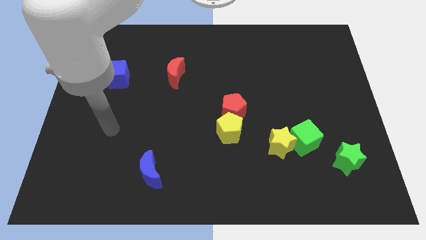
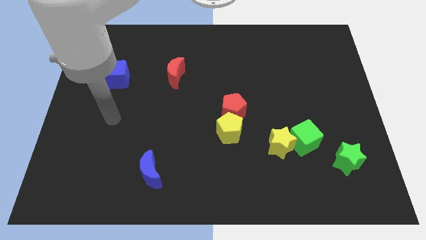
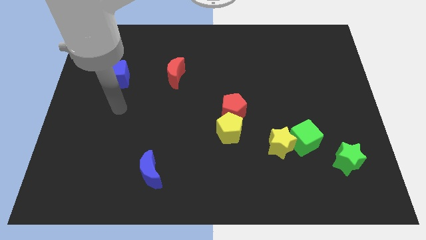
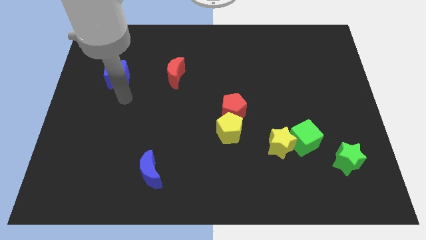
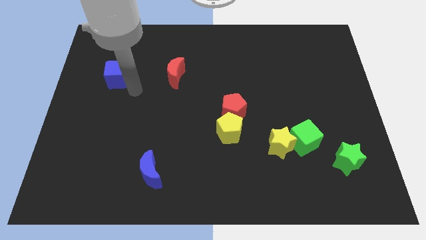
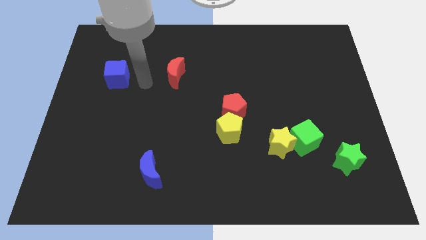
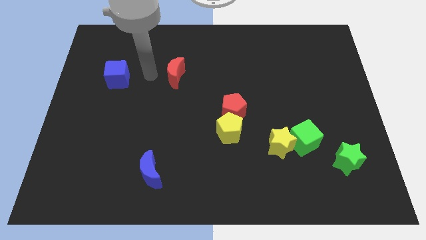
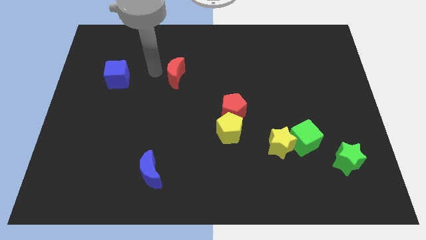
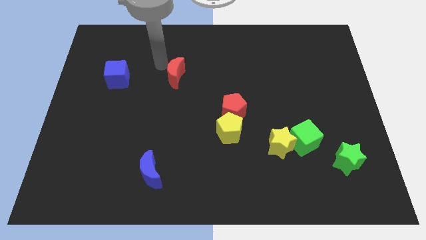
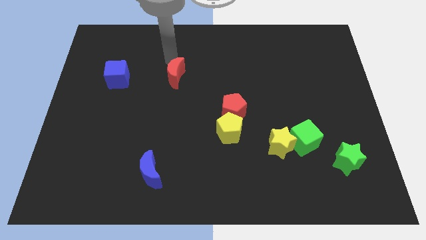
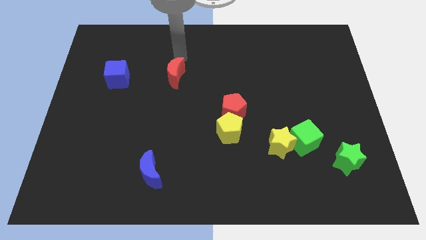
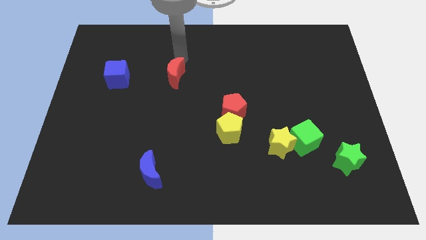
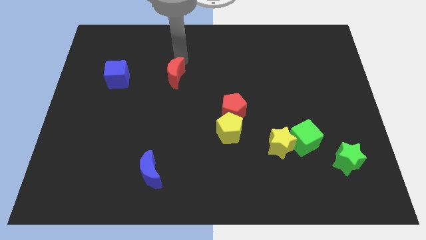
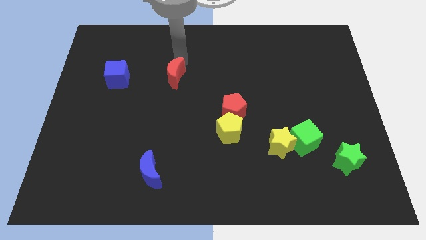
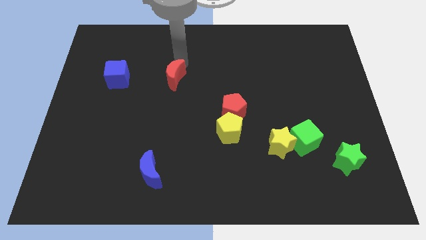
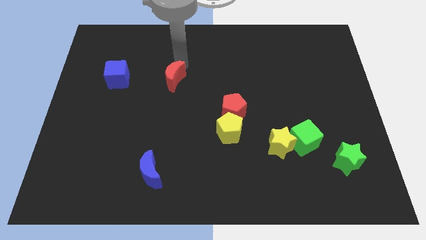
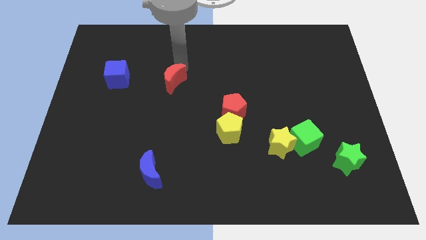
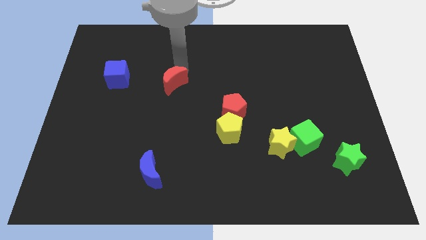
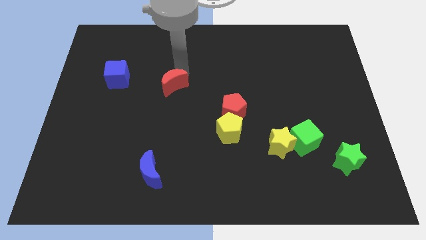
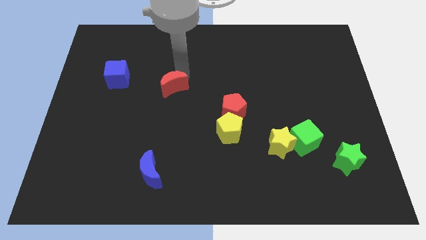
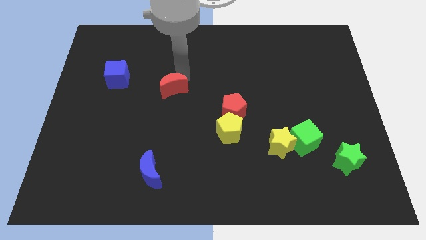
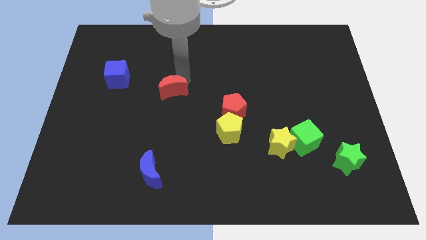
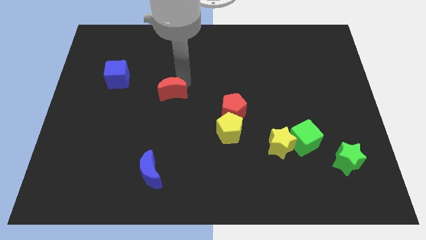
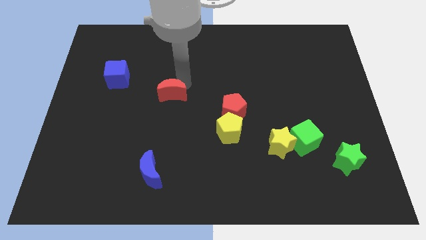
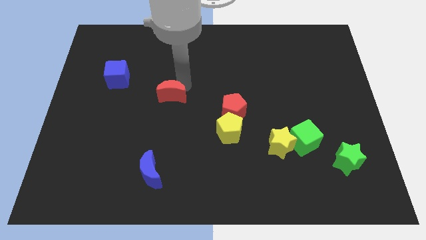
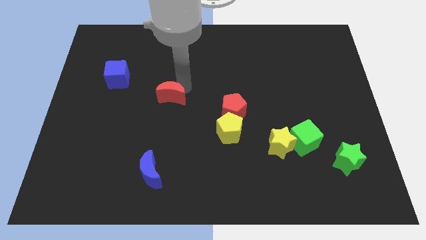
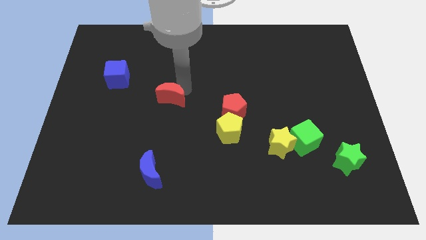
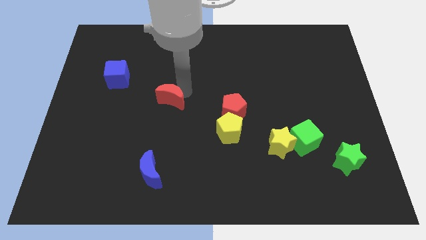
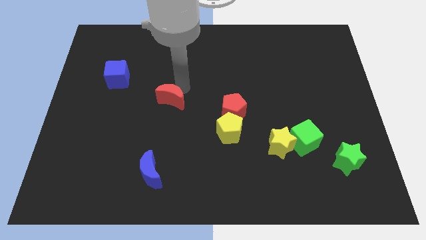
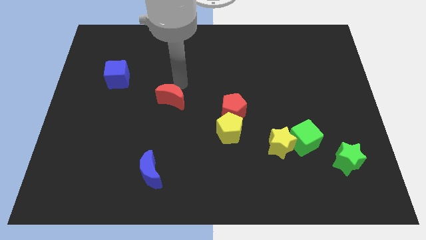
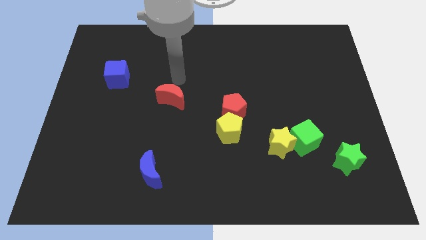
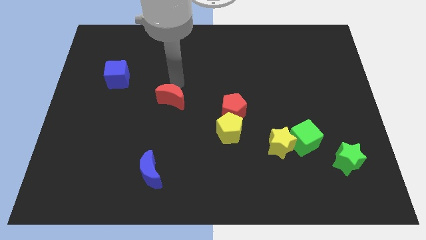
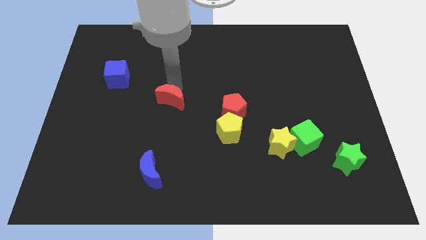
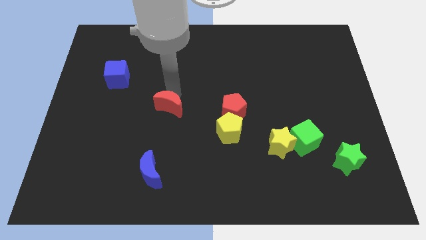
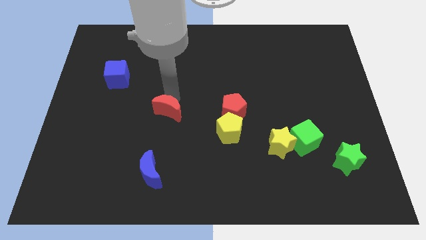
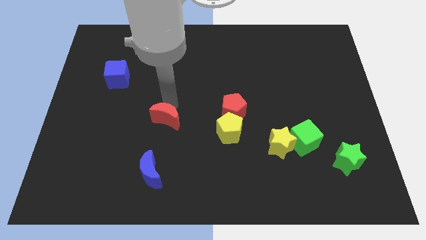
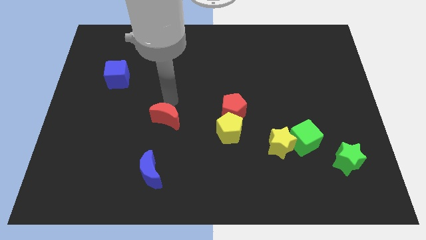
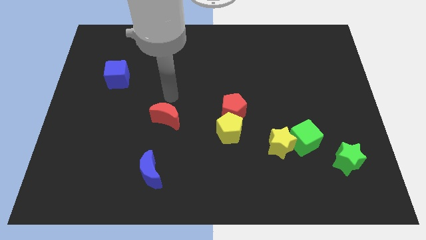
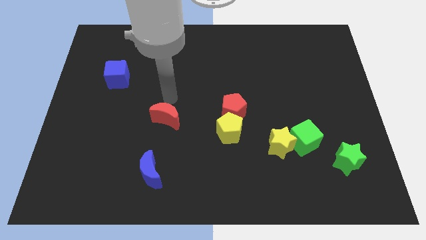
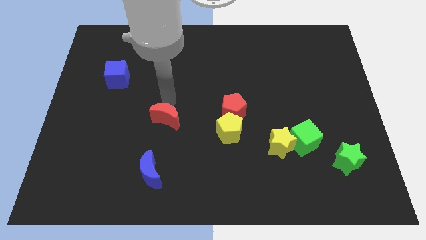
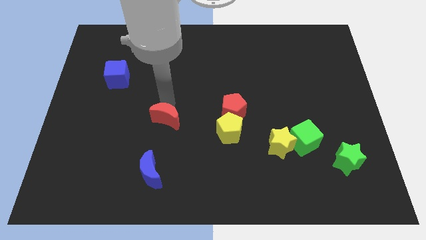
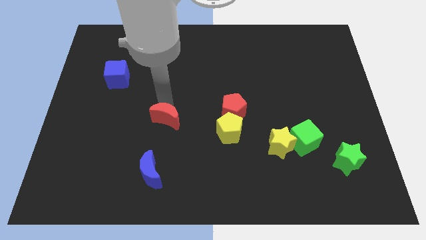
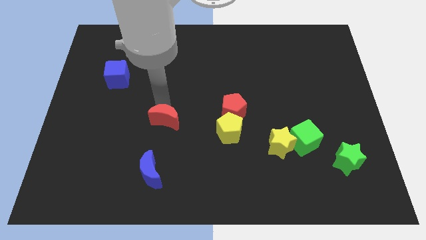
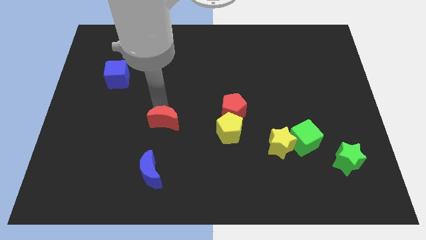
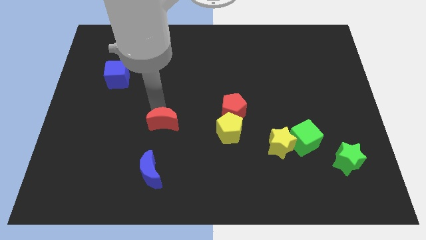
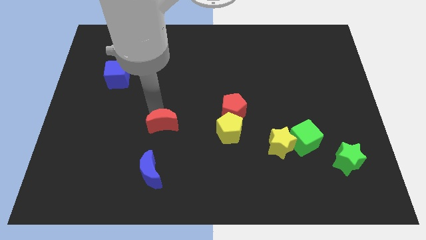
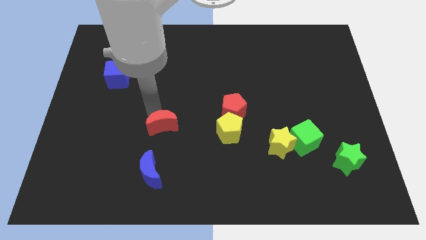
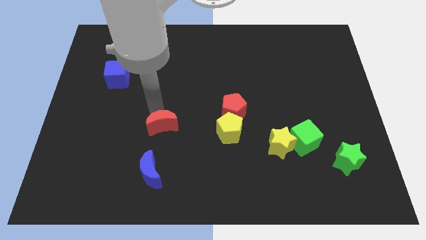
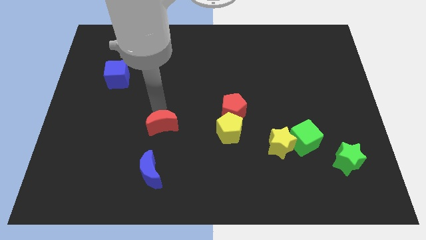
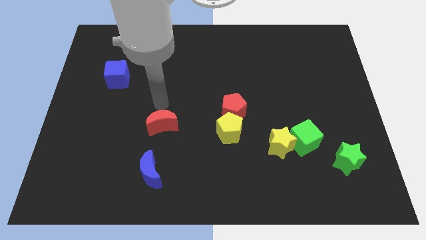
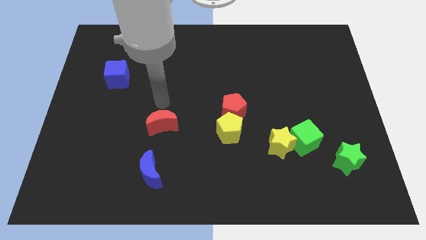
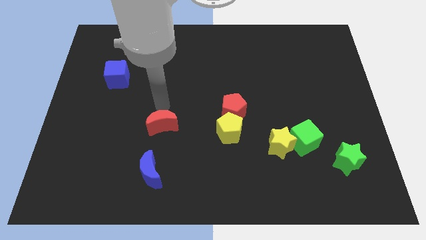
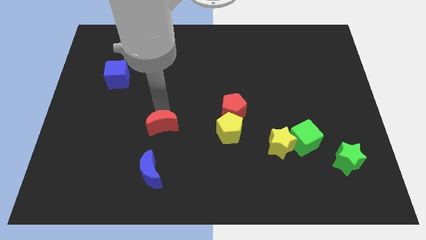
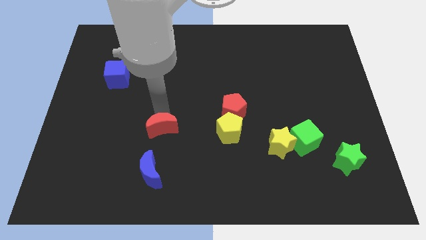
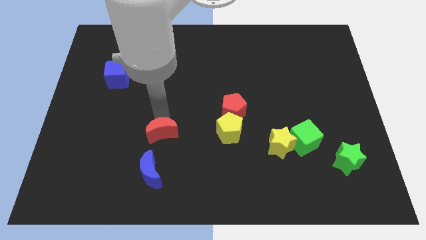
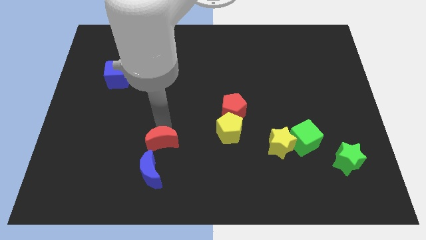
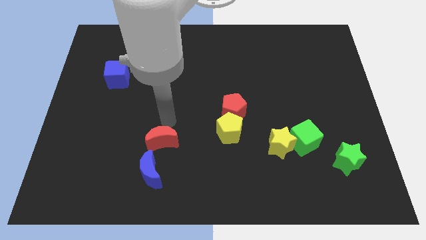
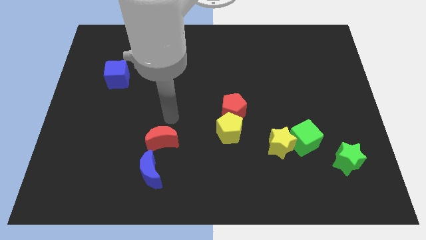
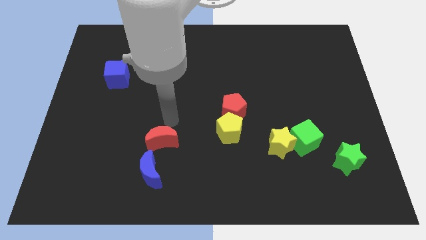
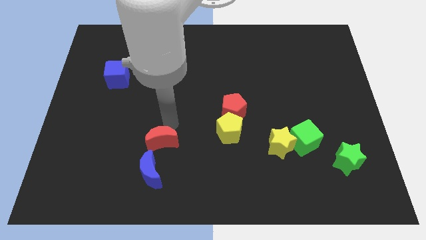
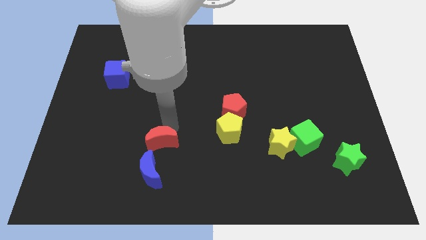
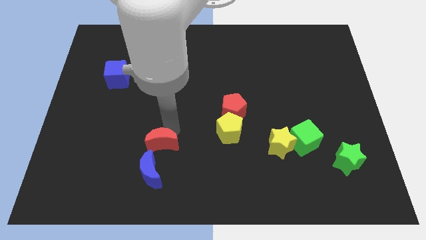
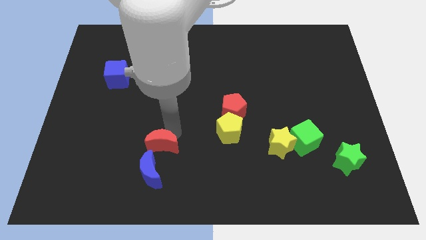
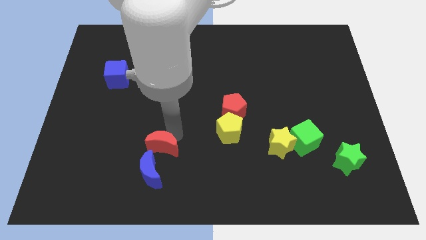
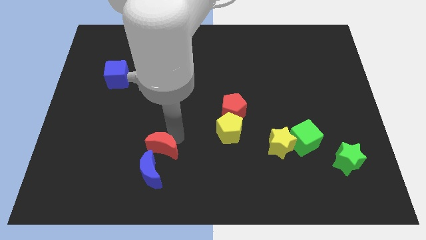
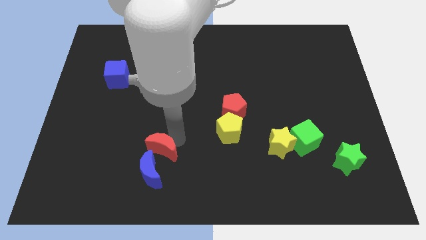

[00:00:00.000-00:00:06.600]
push the red moon close to the blue moon
